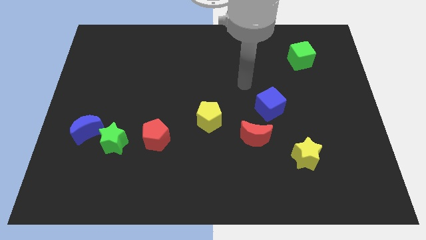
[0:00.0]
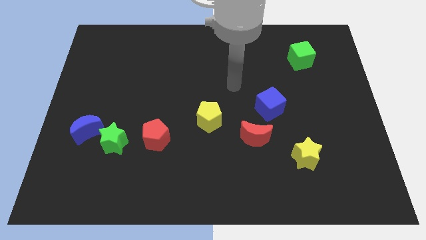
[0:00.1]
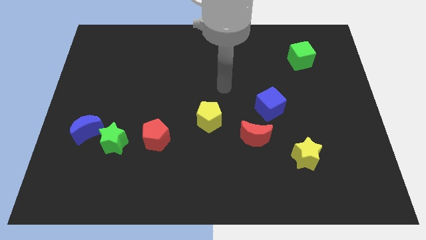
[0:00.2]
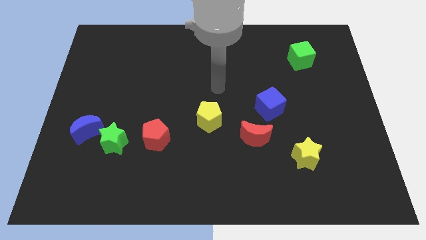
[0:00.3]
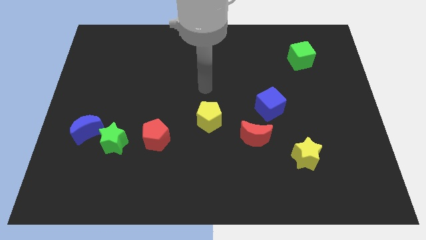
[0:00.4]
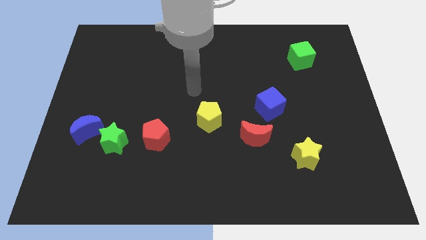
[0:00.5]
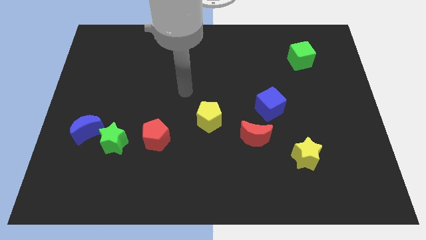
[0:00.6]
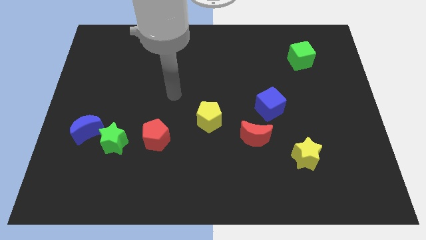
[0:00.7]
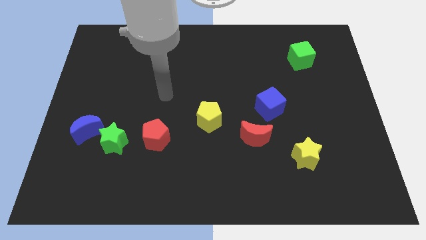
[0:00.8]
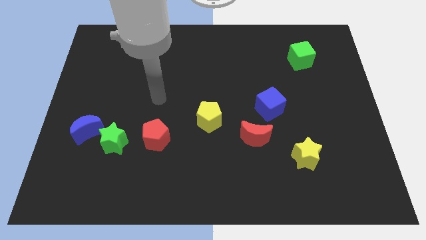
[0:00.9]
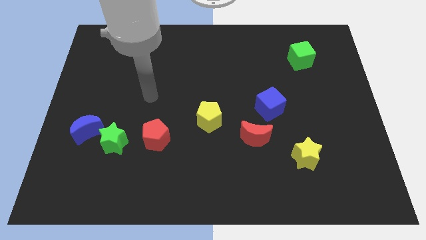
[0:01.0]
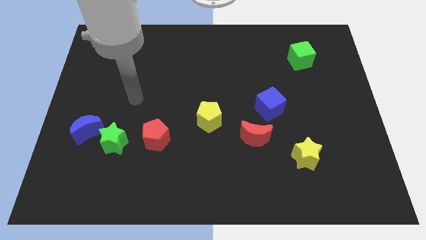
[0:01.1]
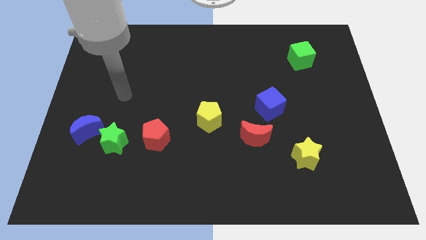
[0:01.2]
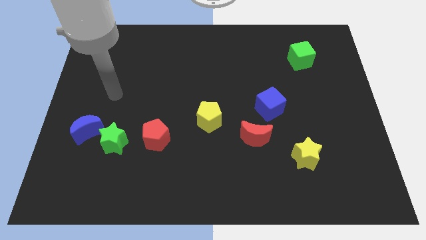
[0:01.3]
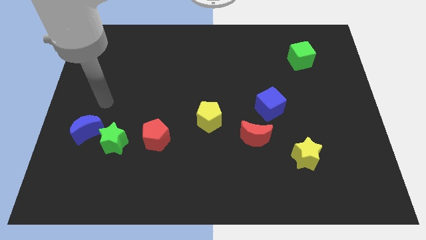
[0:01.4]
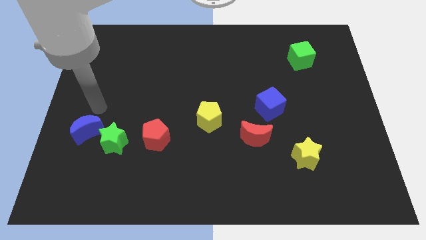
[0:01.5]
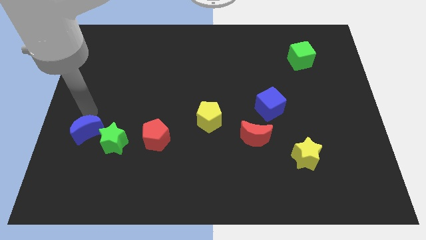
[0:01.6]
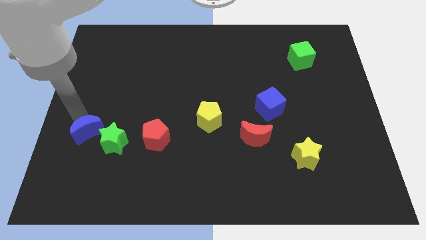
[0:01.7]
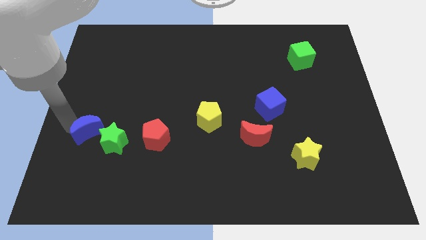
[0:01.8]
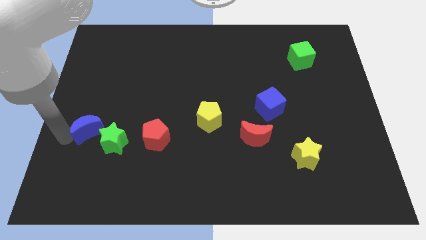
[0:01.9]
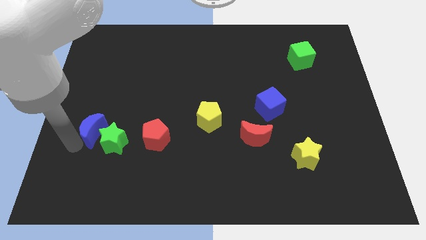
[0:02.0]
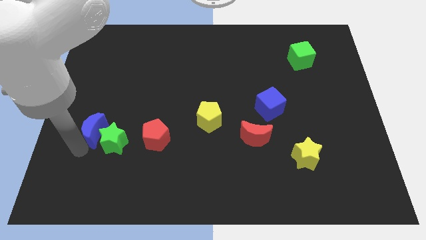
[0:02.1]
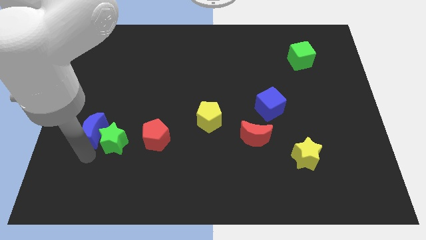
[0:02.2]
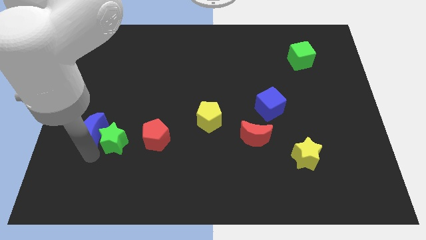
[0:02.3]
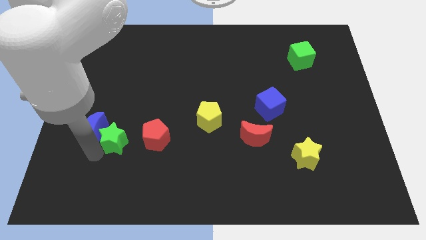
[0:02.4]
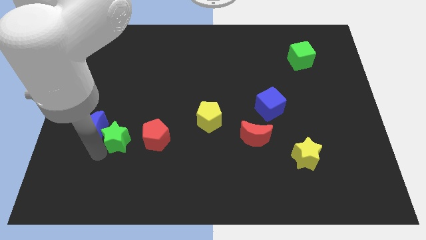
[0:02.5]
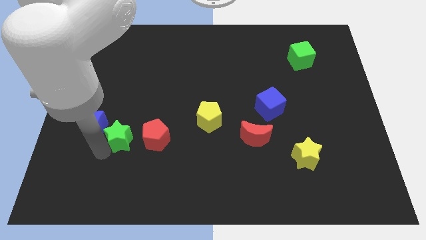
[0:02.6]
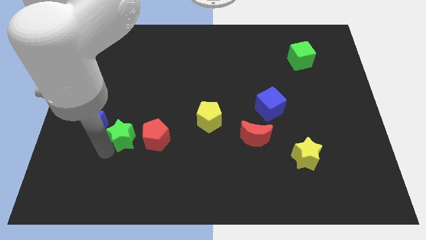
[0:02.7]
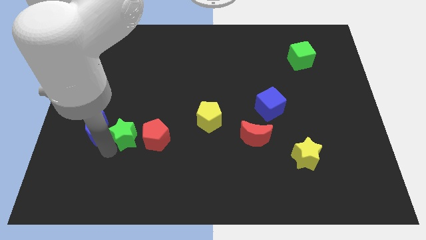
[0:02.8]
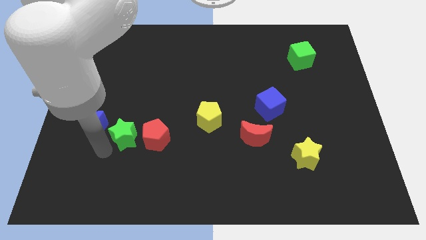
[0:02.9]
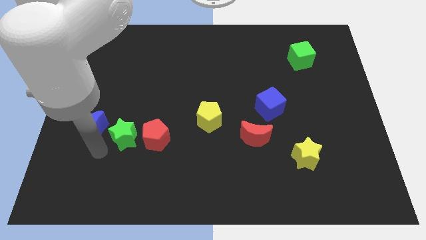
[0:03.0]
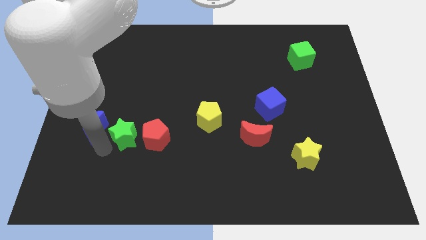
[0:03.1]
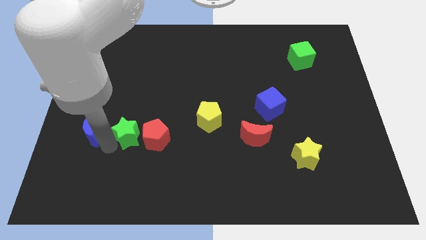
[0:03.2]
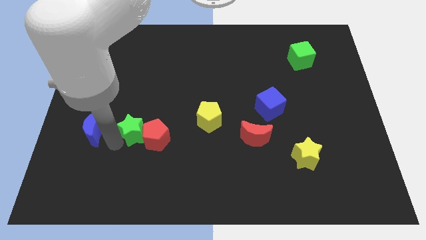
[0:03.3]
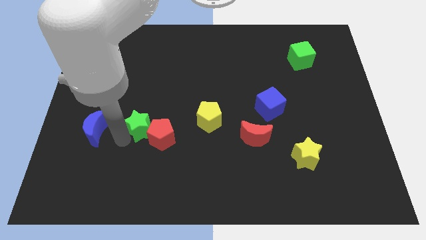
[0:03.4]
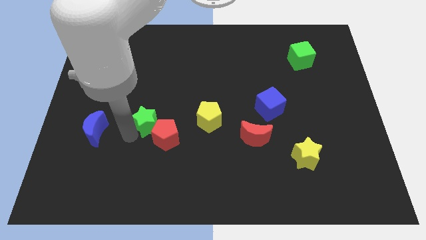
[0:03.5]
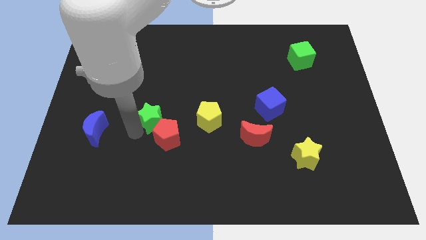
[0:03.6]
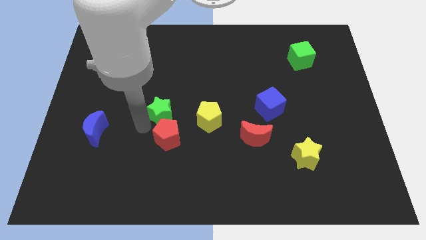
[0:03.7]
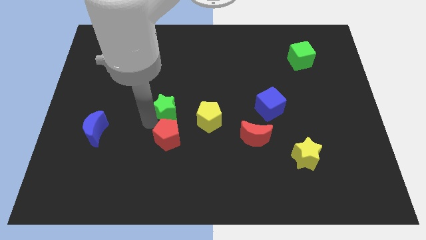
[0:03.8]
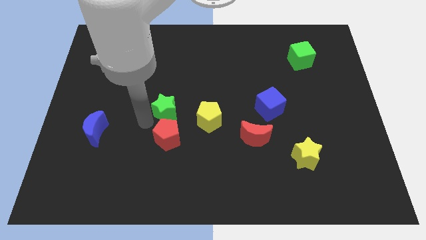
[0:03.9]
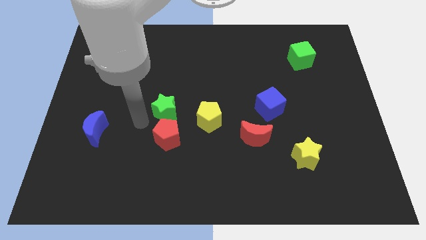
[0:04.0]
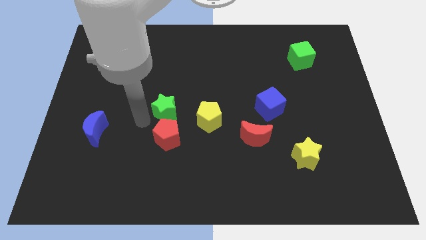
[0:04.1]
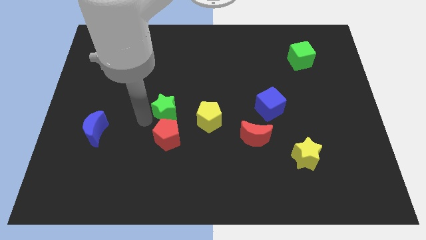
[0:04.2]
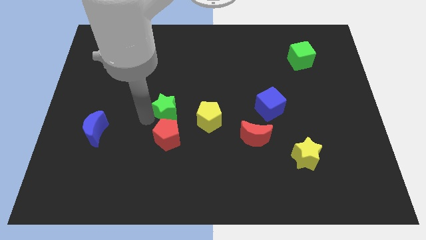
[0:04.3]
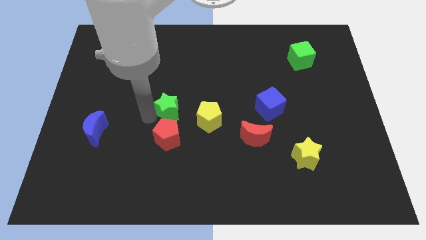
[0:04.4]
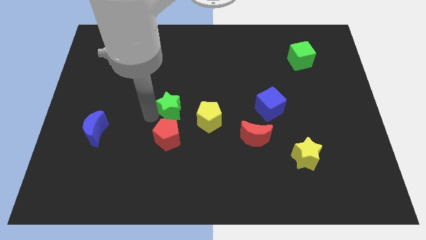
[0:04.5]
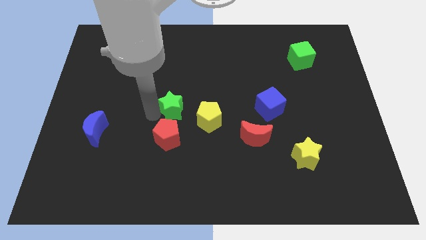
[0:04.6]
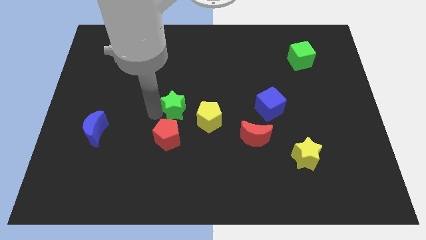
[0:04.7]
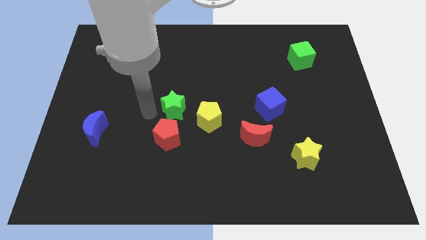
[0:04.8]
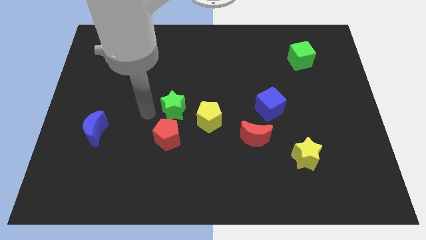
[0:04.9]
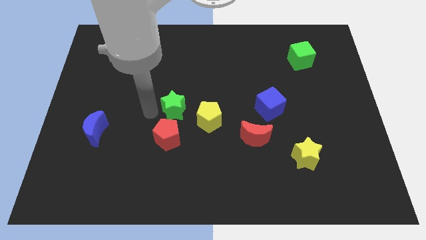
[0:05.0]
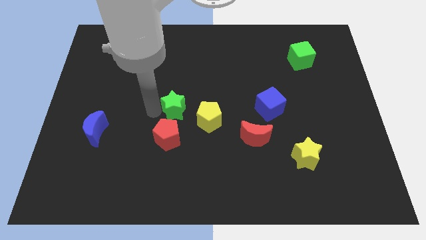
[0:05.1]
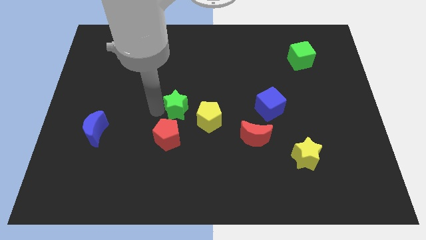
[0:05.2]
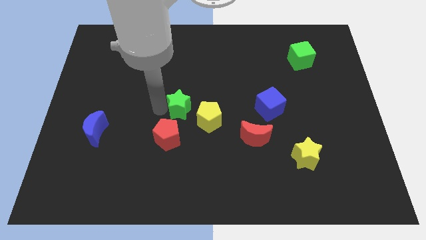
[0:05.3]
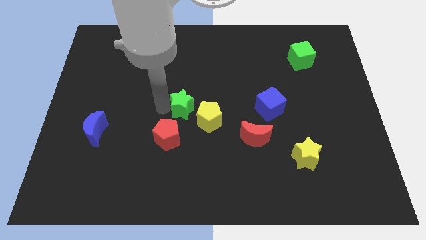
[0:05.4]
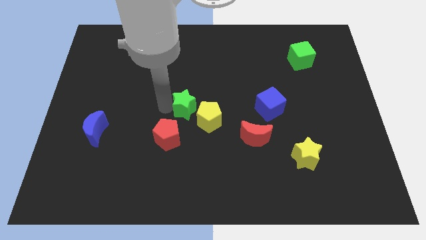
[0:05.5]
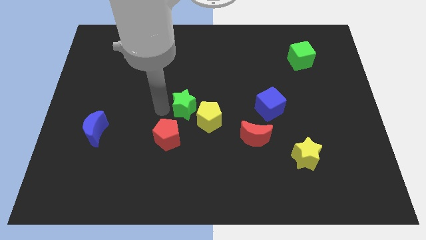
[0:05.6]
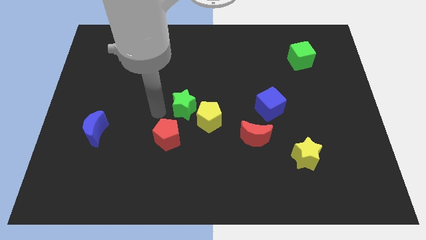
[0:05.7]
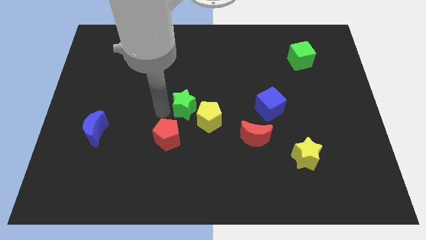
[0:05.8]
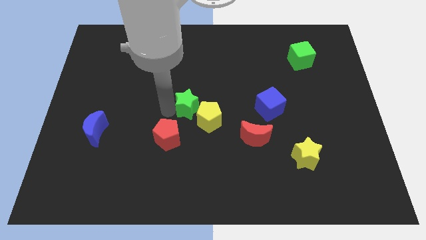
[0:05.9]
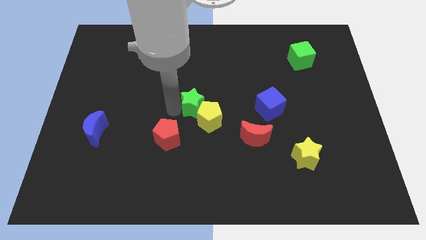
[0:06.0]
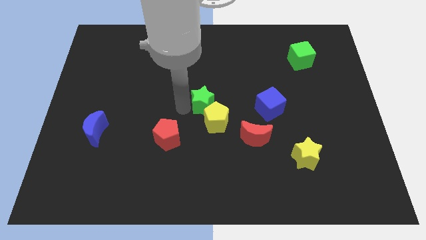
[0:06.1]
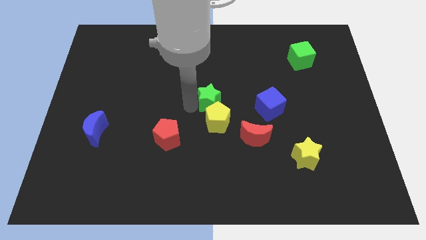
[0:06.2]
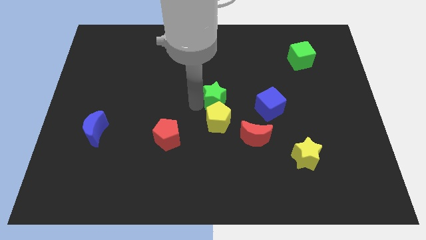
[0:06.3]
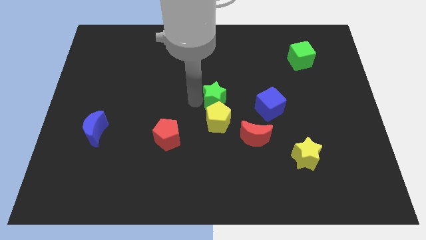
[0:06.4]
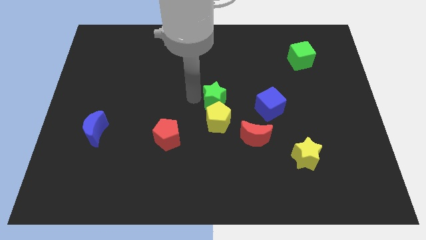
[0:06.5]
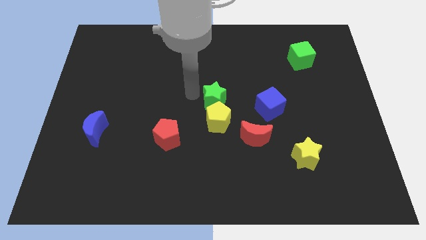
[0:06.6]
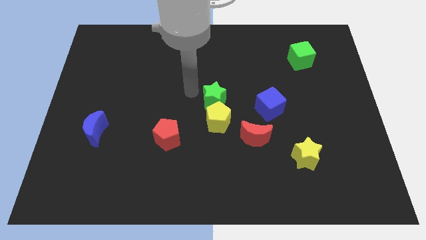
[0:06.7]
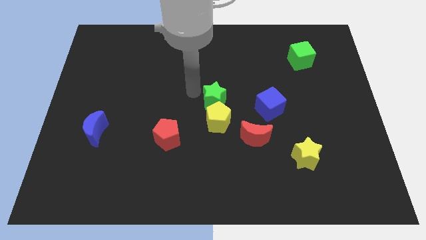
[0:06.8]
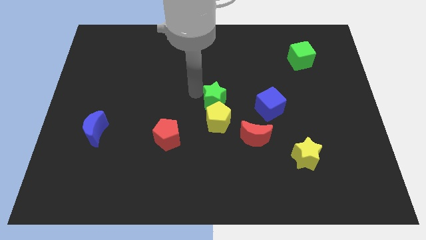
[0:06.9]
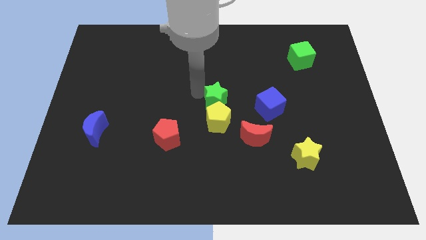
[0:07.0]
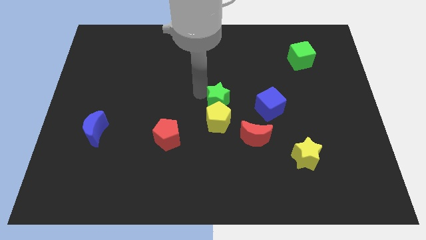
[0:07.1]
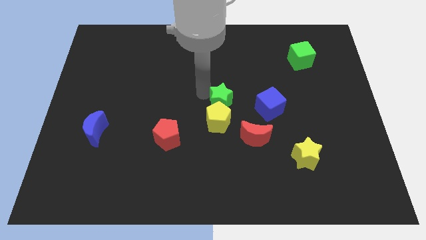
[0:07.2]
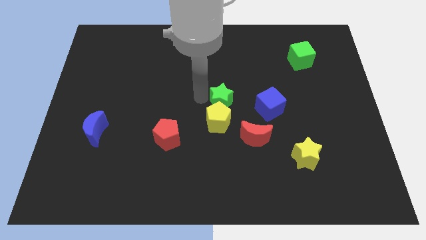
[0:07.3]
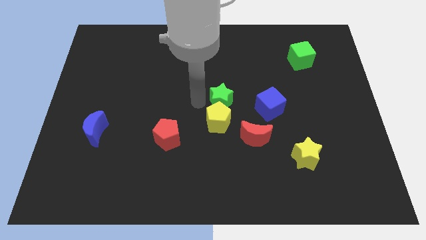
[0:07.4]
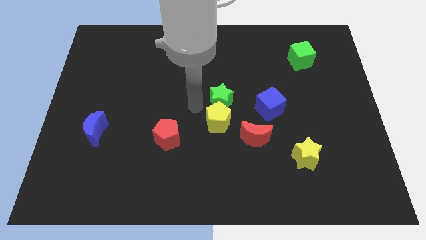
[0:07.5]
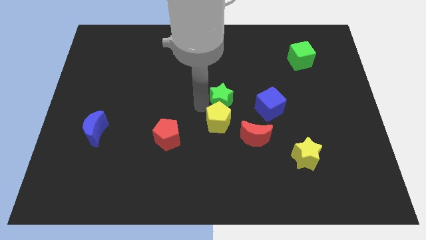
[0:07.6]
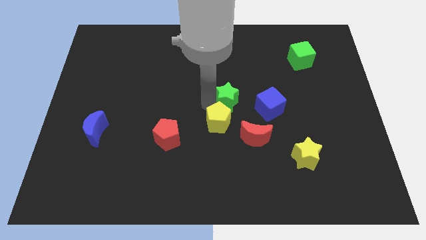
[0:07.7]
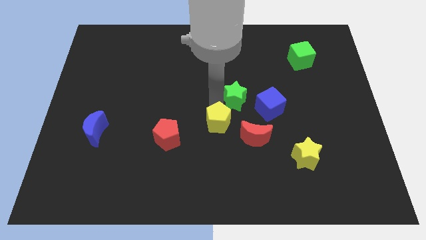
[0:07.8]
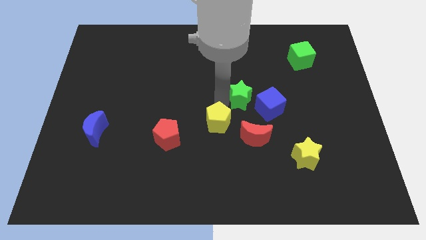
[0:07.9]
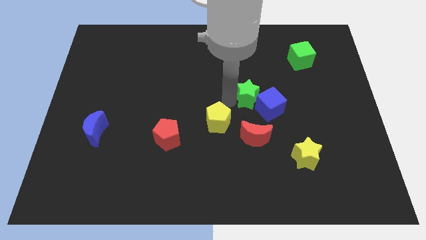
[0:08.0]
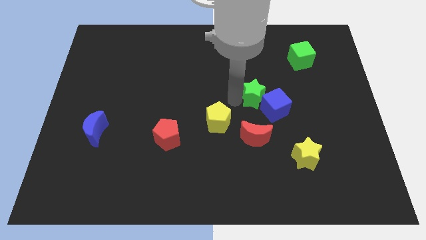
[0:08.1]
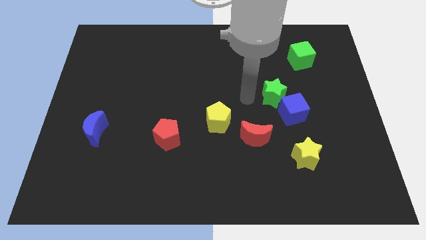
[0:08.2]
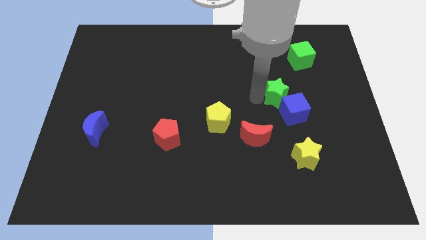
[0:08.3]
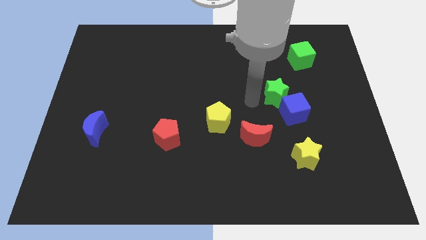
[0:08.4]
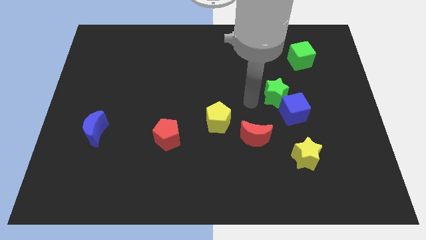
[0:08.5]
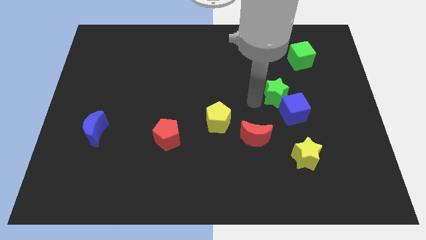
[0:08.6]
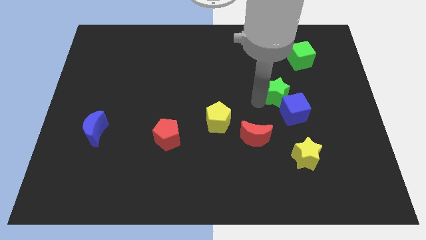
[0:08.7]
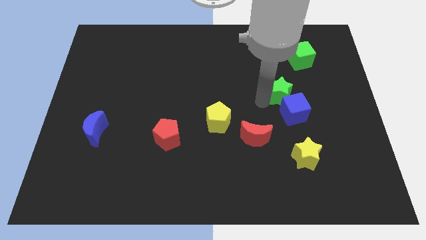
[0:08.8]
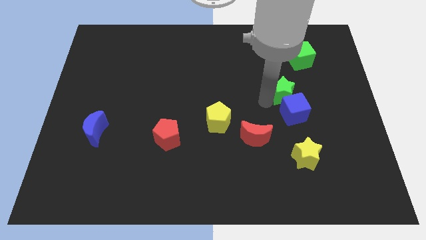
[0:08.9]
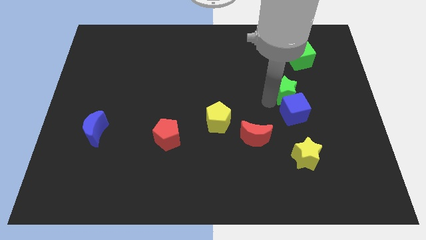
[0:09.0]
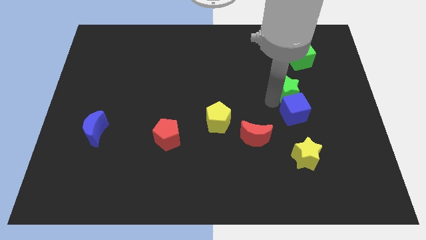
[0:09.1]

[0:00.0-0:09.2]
put the green star to the bottom side of the green cube
